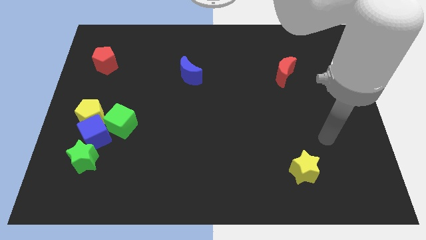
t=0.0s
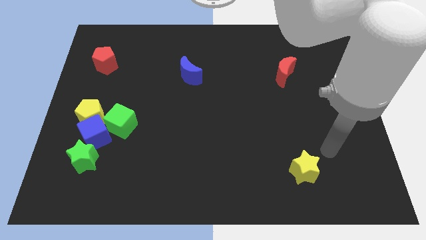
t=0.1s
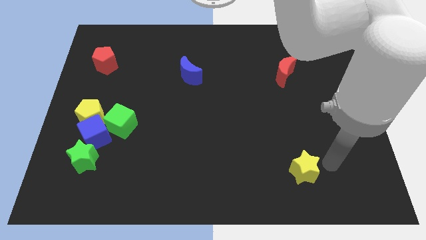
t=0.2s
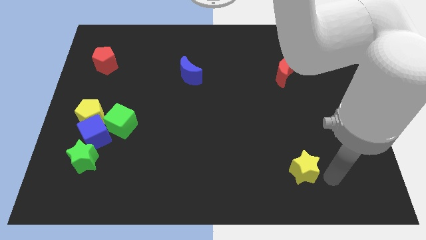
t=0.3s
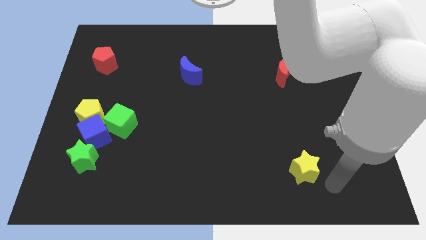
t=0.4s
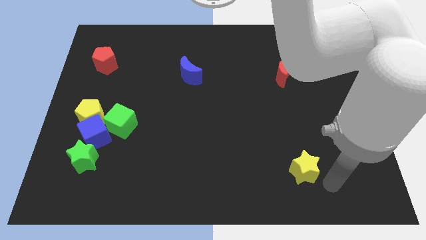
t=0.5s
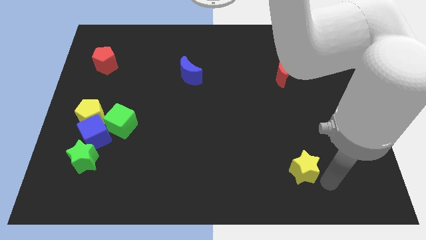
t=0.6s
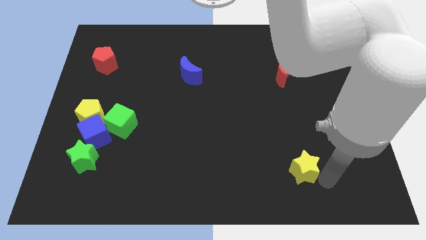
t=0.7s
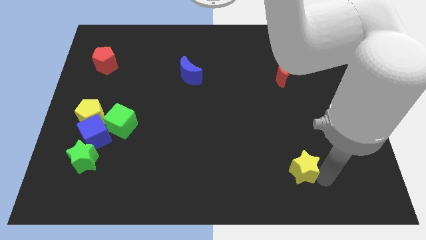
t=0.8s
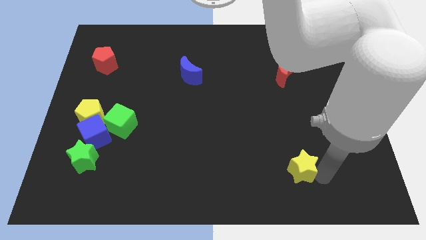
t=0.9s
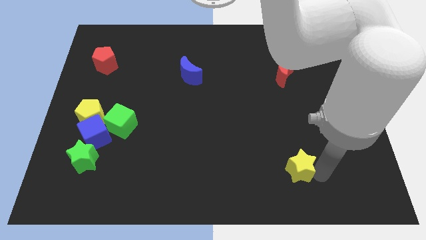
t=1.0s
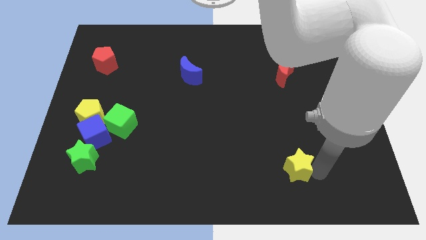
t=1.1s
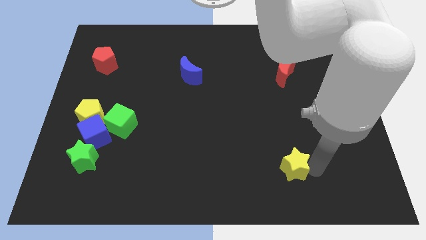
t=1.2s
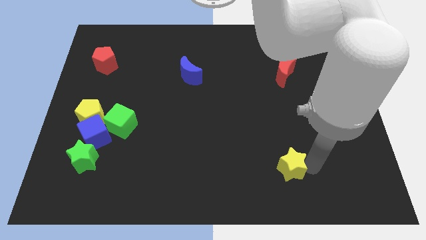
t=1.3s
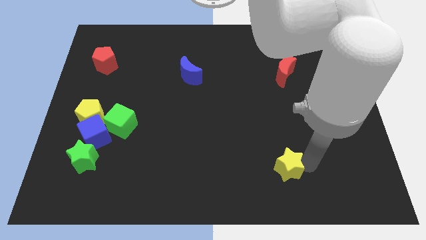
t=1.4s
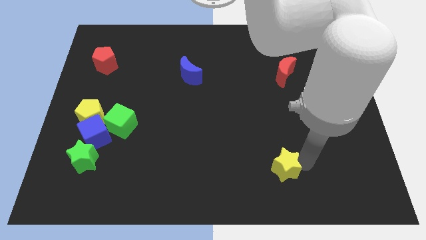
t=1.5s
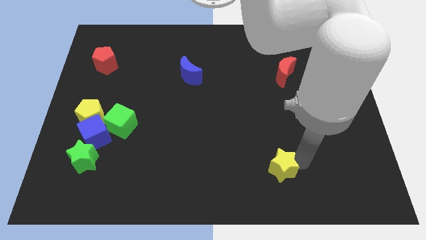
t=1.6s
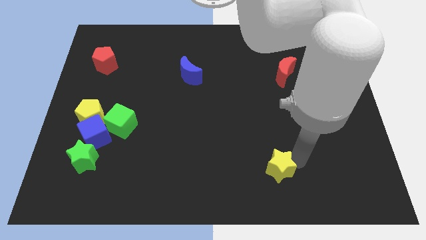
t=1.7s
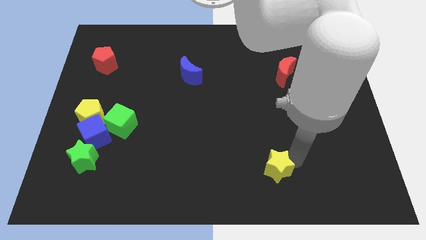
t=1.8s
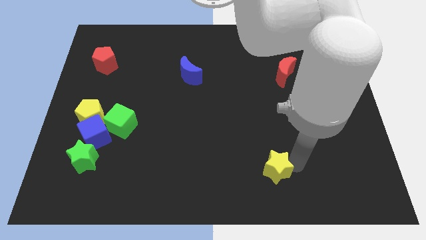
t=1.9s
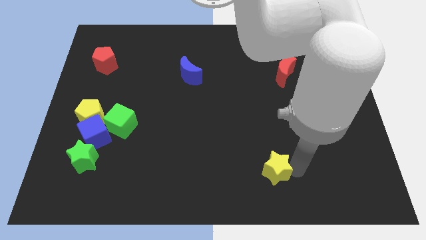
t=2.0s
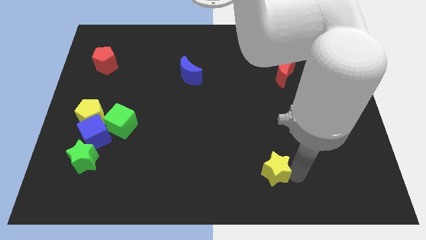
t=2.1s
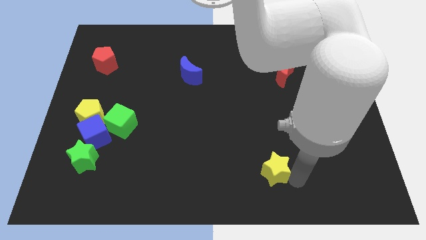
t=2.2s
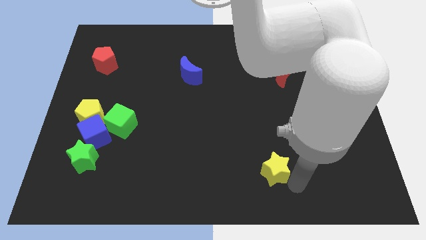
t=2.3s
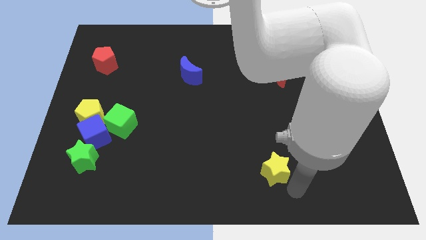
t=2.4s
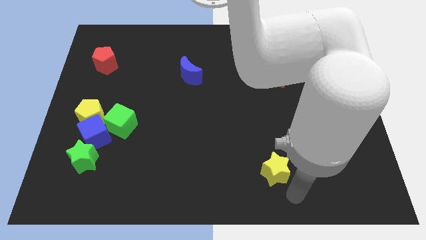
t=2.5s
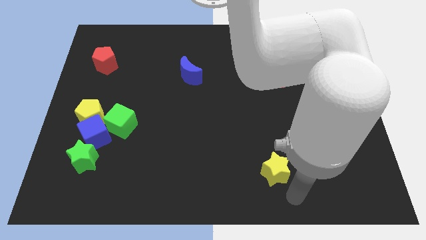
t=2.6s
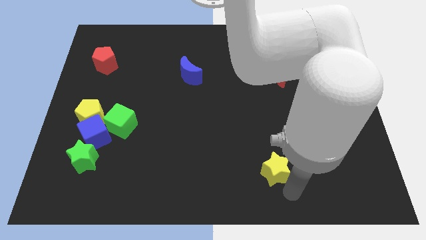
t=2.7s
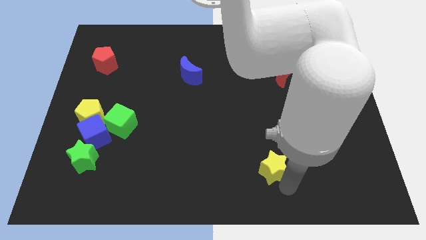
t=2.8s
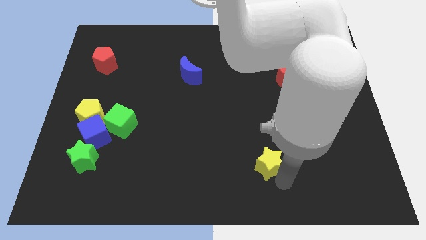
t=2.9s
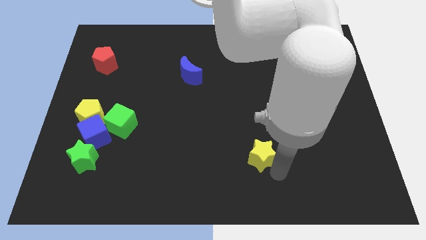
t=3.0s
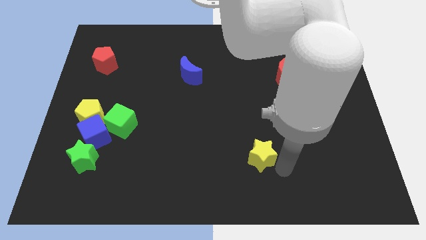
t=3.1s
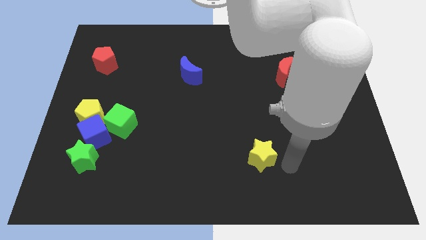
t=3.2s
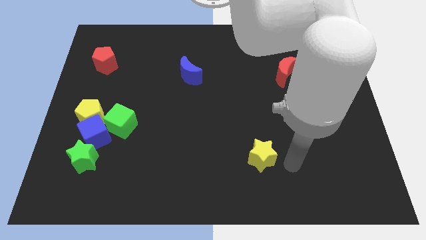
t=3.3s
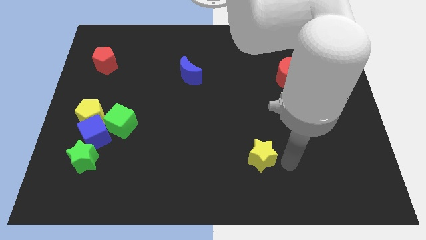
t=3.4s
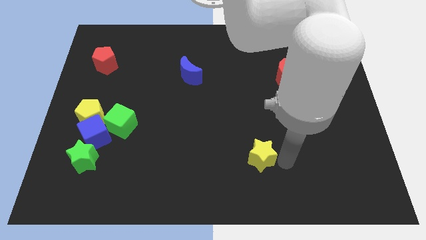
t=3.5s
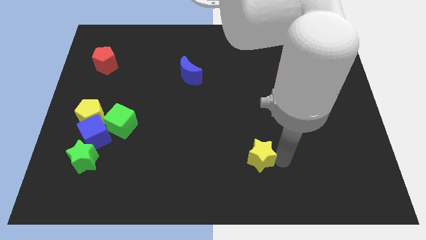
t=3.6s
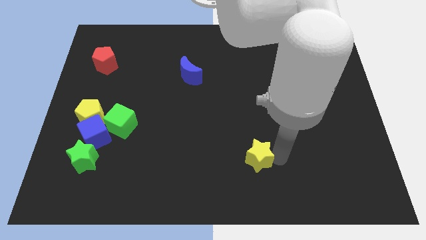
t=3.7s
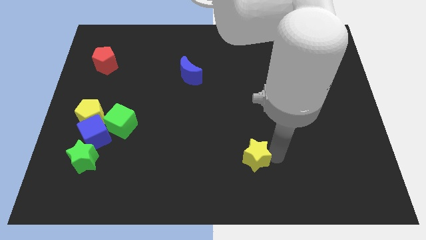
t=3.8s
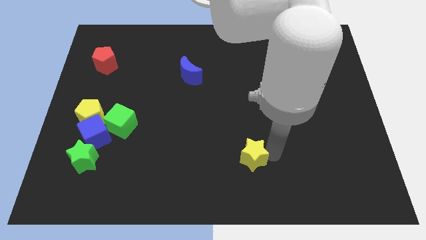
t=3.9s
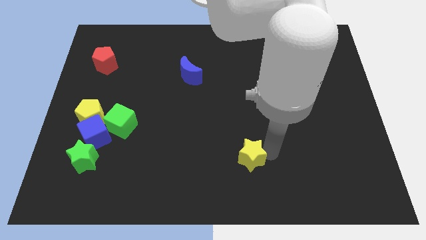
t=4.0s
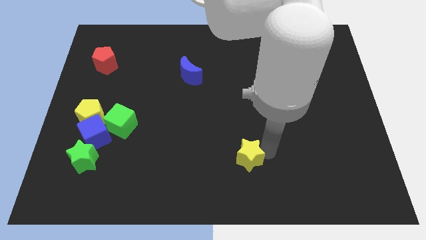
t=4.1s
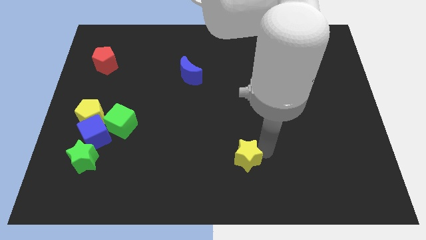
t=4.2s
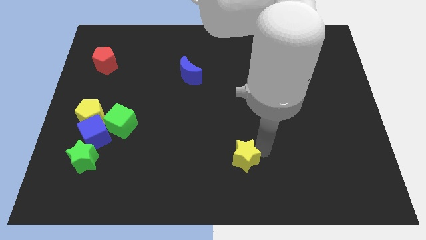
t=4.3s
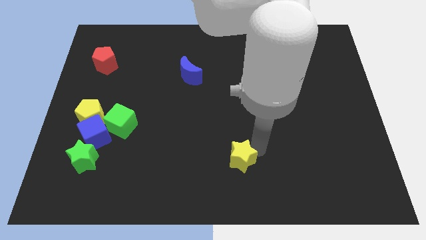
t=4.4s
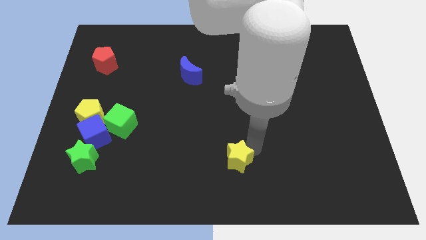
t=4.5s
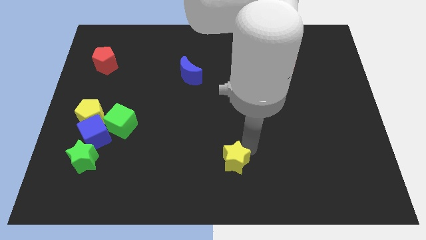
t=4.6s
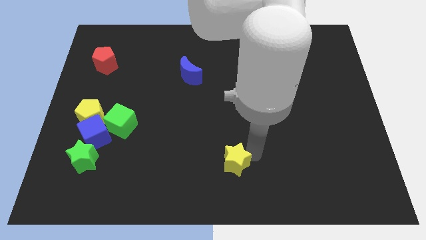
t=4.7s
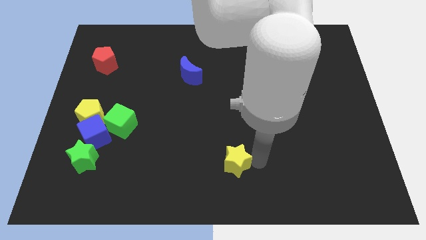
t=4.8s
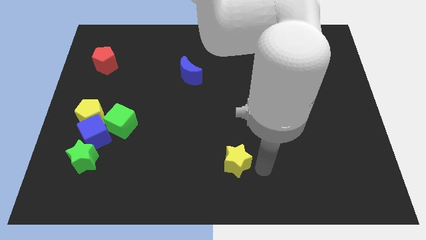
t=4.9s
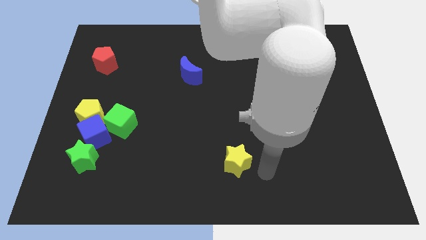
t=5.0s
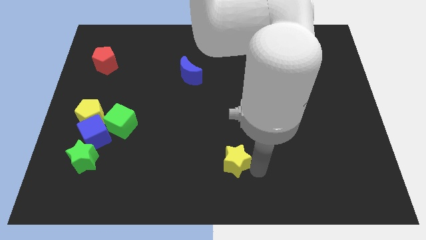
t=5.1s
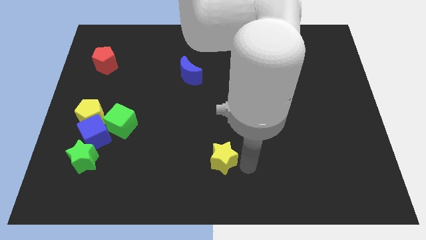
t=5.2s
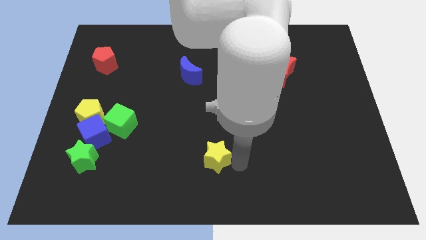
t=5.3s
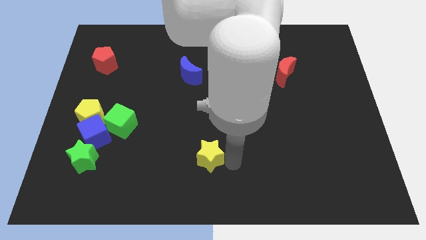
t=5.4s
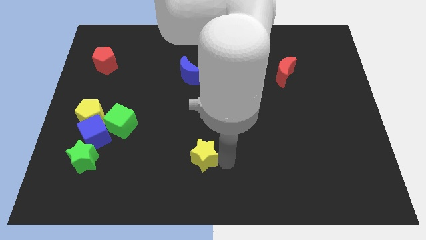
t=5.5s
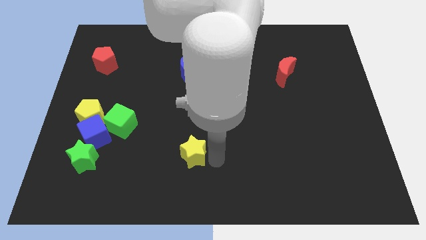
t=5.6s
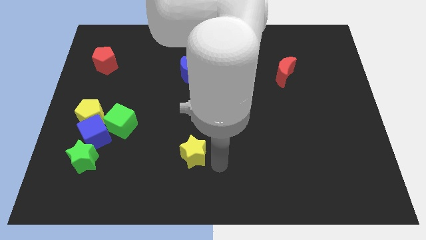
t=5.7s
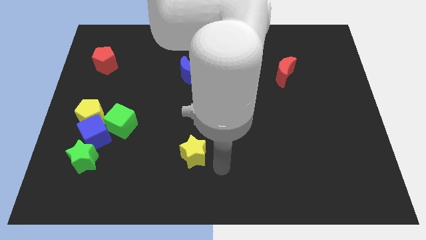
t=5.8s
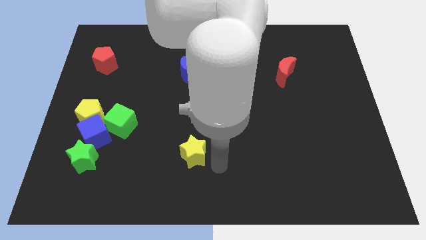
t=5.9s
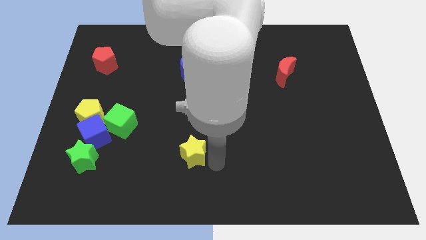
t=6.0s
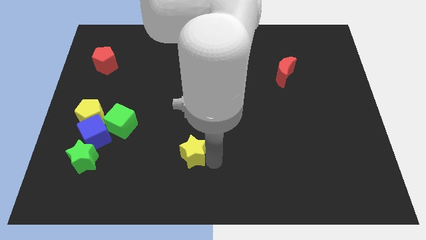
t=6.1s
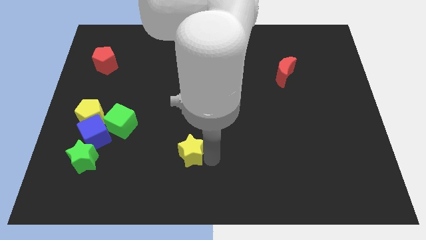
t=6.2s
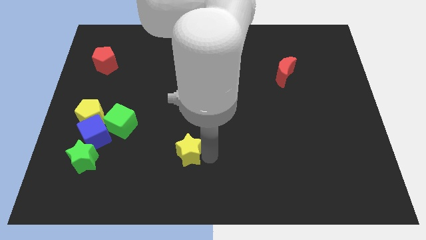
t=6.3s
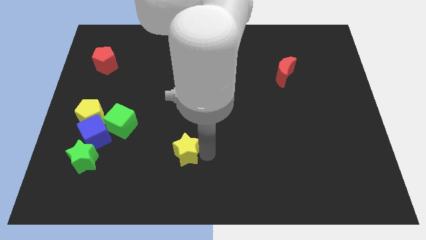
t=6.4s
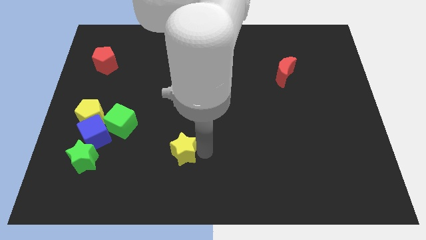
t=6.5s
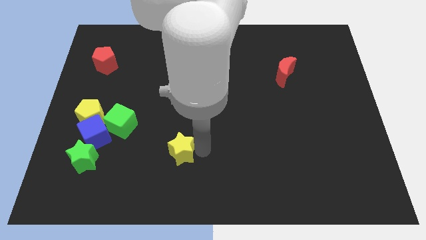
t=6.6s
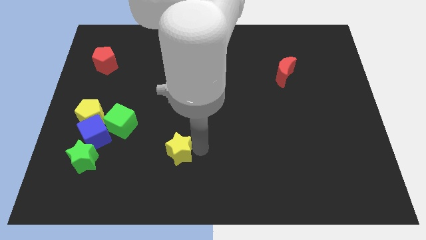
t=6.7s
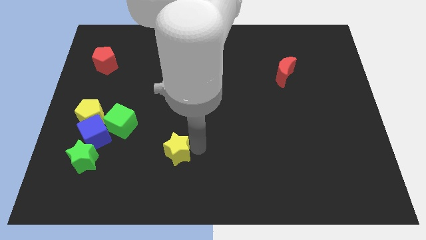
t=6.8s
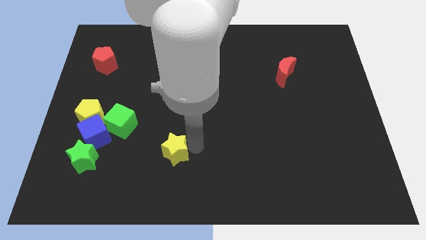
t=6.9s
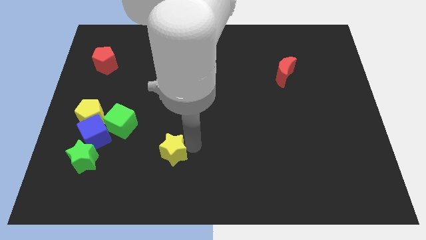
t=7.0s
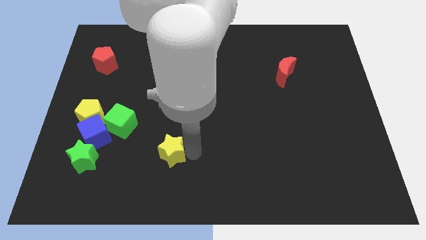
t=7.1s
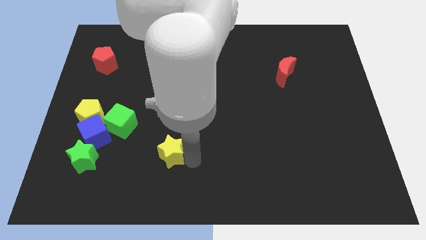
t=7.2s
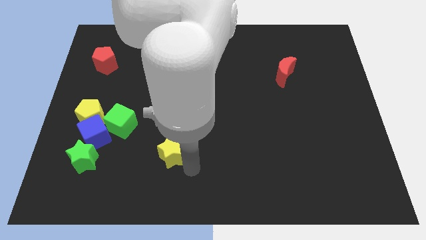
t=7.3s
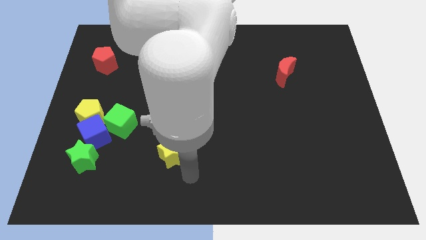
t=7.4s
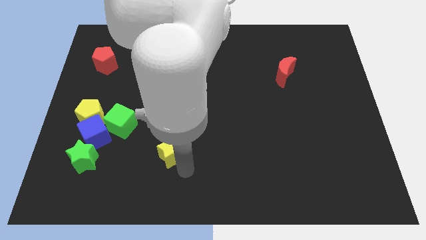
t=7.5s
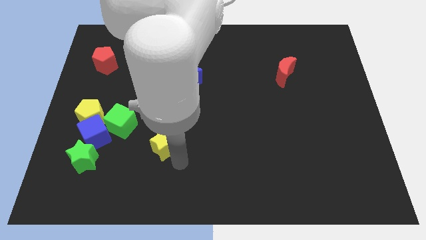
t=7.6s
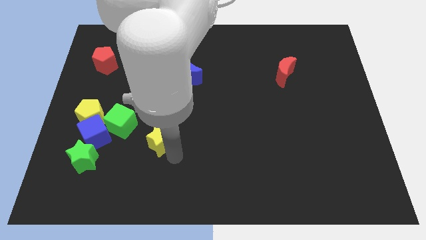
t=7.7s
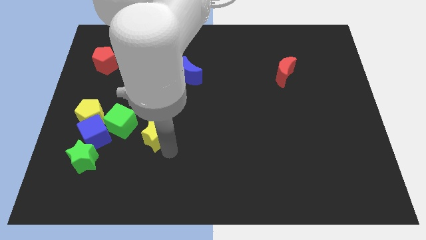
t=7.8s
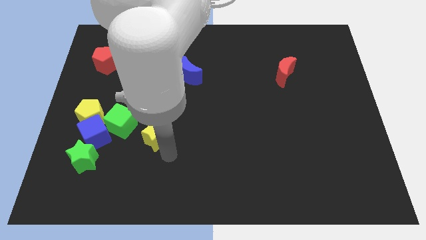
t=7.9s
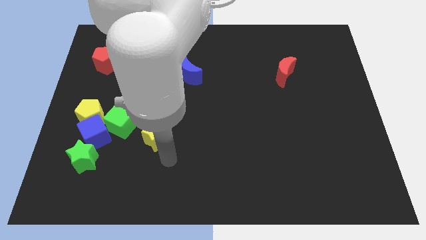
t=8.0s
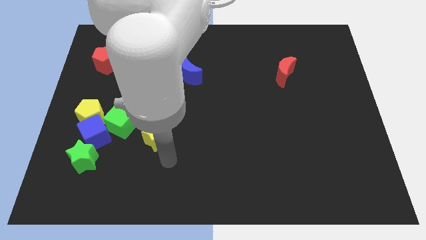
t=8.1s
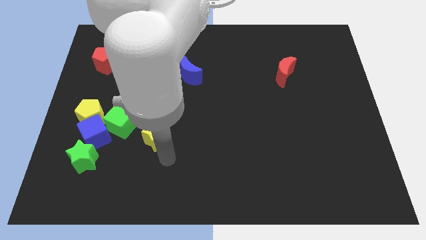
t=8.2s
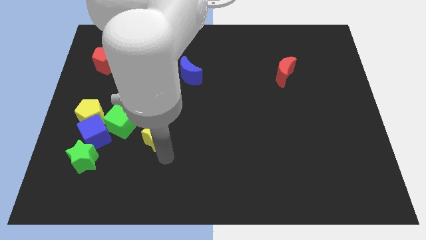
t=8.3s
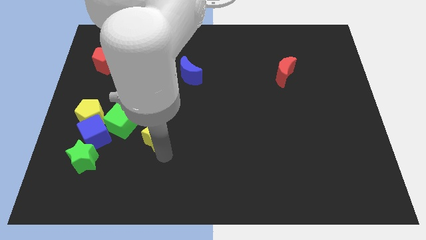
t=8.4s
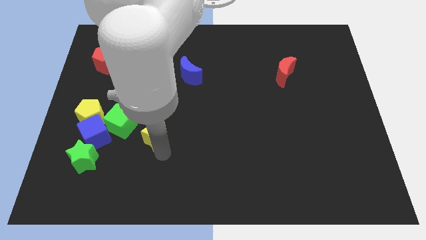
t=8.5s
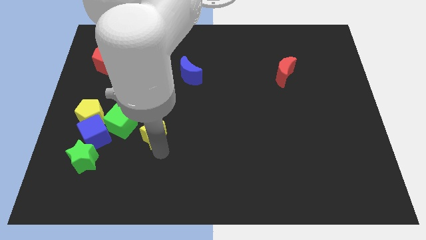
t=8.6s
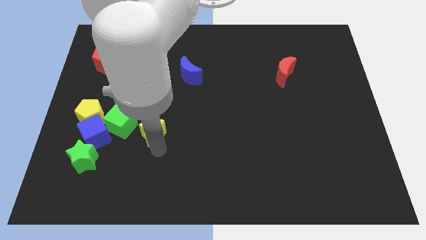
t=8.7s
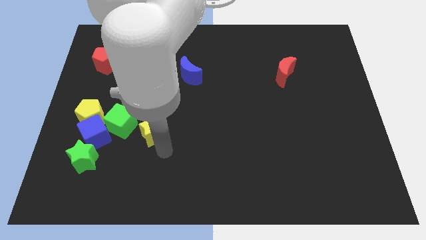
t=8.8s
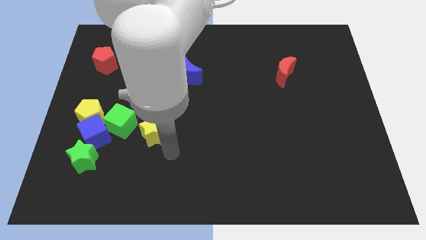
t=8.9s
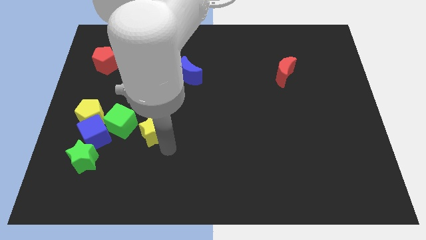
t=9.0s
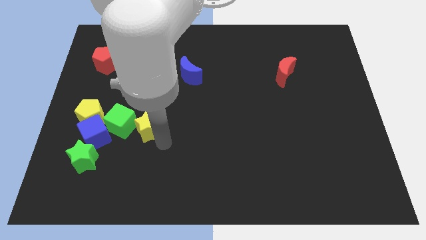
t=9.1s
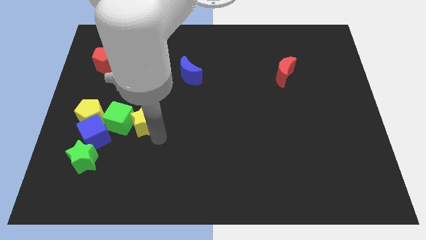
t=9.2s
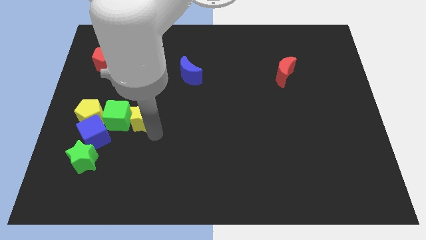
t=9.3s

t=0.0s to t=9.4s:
move the yellow star to the top right of the blue cube
